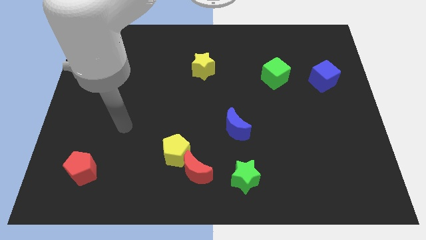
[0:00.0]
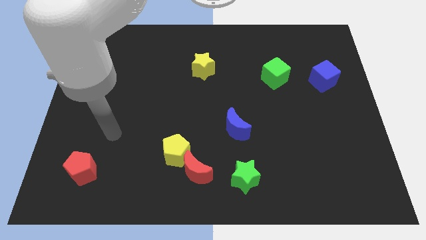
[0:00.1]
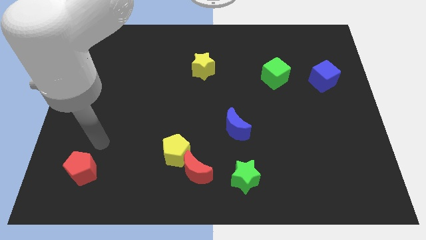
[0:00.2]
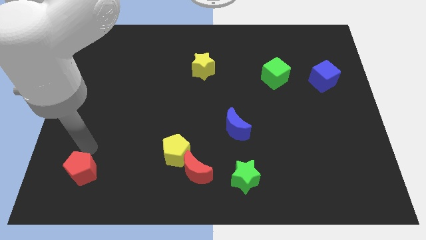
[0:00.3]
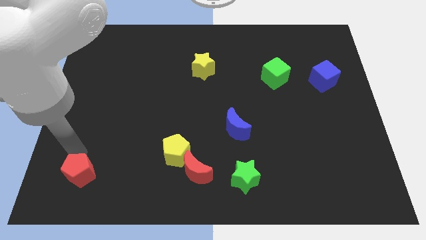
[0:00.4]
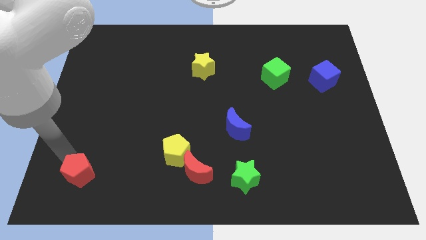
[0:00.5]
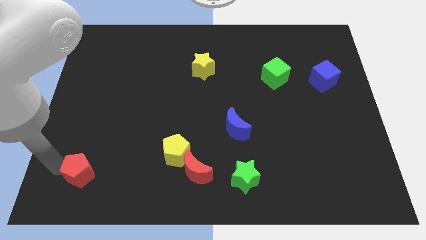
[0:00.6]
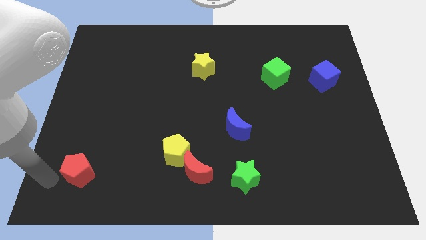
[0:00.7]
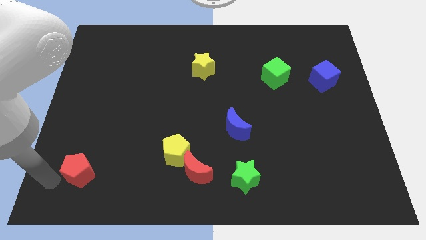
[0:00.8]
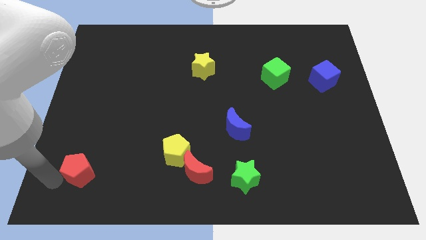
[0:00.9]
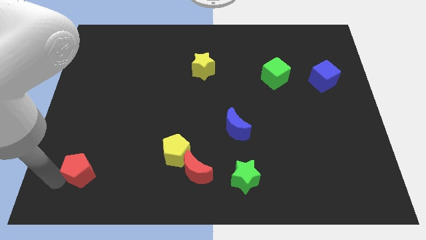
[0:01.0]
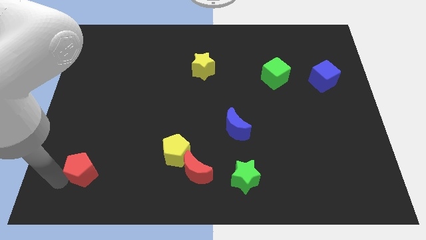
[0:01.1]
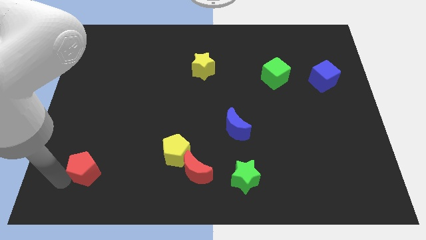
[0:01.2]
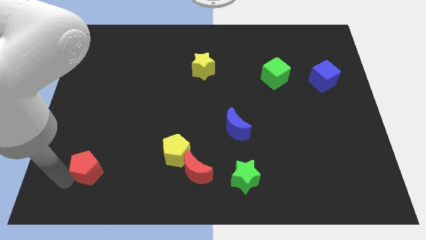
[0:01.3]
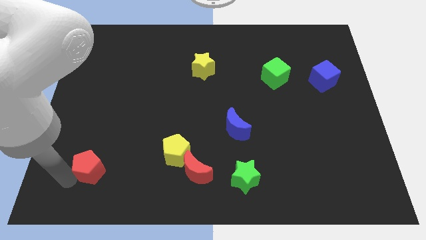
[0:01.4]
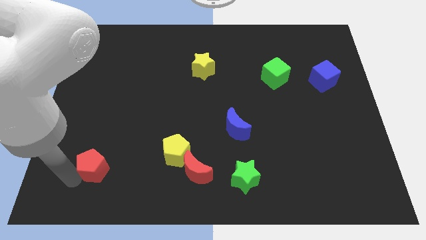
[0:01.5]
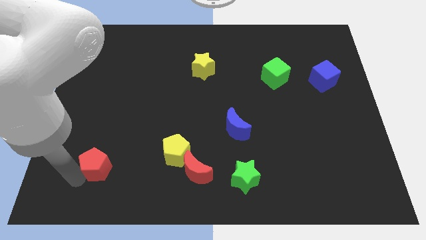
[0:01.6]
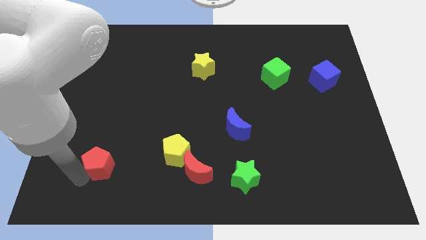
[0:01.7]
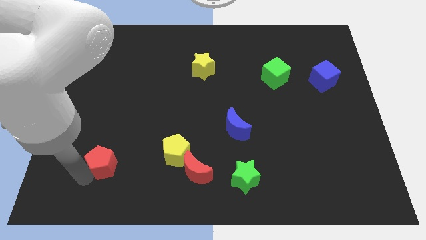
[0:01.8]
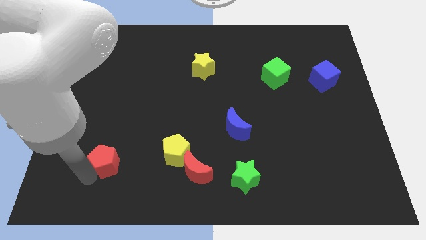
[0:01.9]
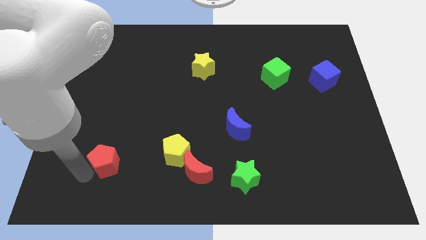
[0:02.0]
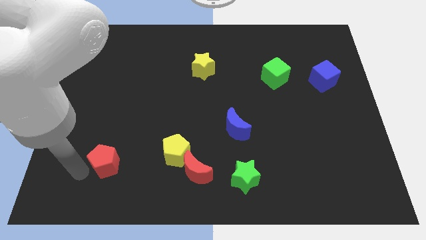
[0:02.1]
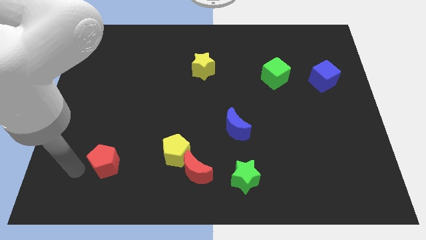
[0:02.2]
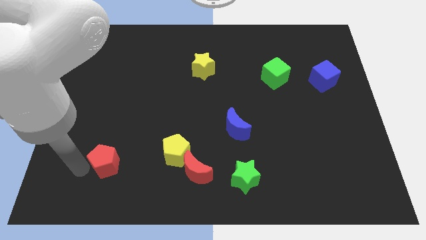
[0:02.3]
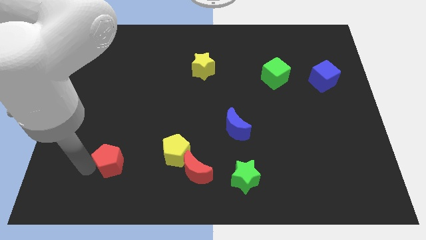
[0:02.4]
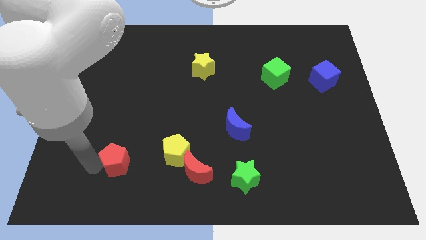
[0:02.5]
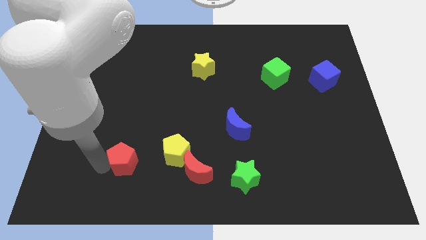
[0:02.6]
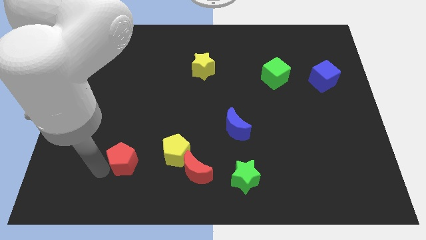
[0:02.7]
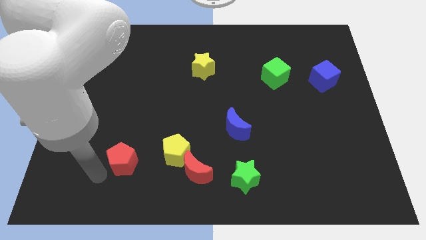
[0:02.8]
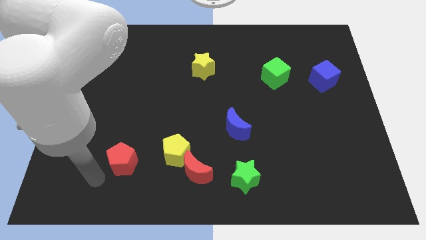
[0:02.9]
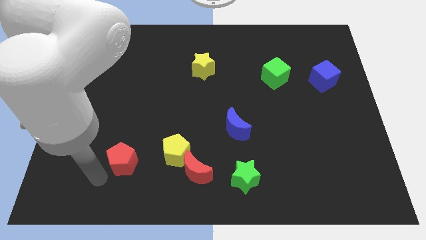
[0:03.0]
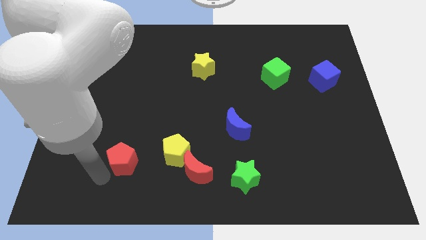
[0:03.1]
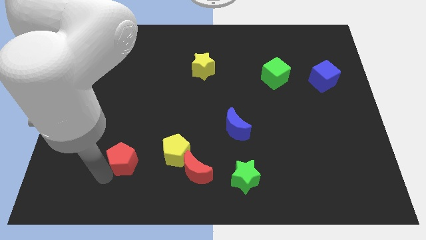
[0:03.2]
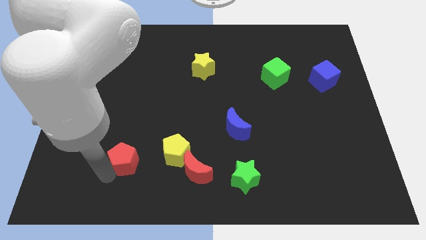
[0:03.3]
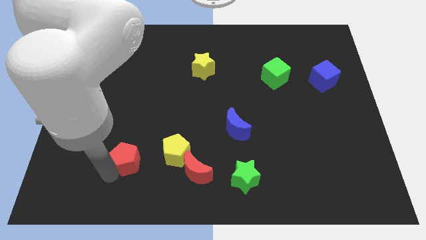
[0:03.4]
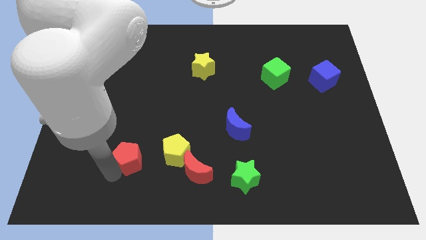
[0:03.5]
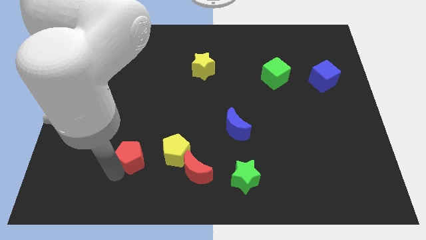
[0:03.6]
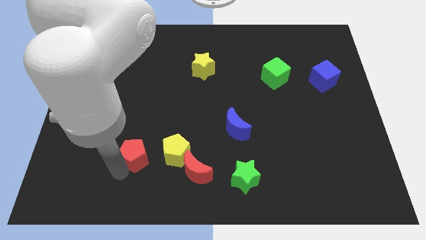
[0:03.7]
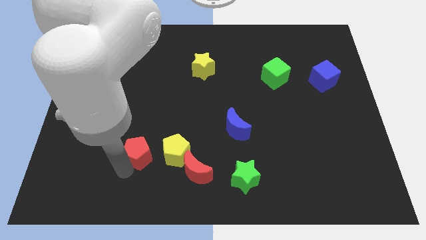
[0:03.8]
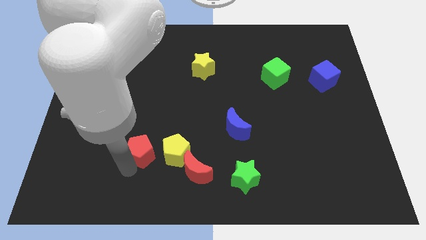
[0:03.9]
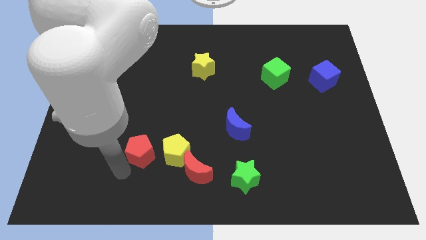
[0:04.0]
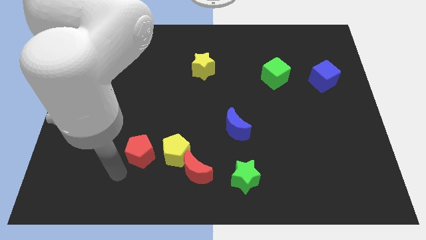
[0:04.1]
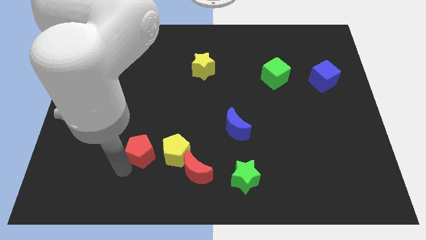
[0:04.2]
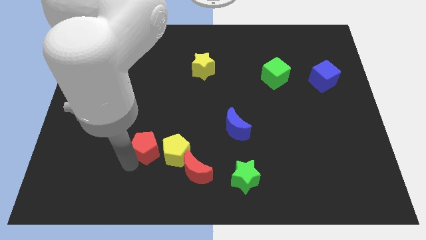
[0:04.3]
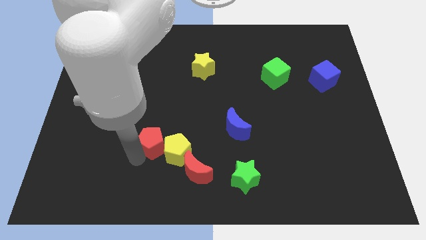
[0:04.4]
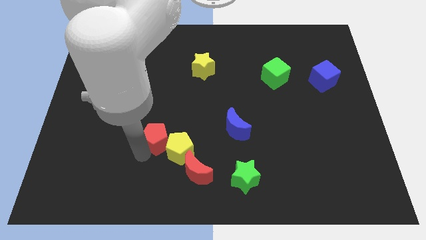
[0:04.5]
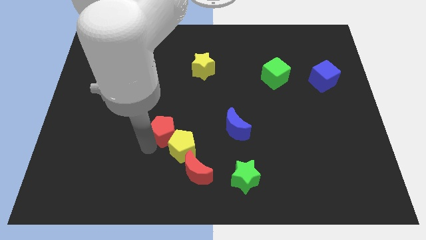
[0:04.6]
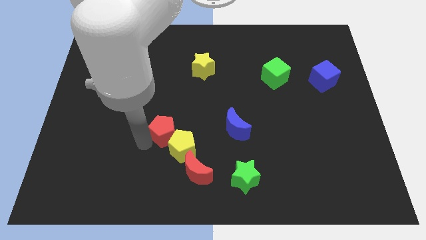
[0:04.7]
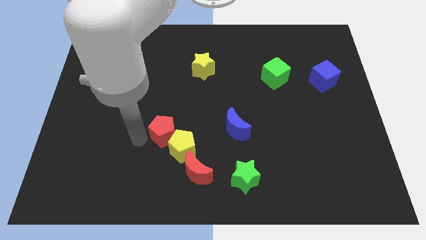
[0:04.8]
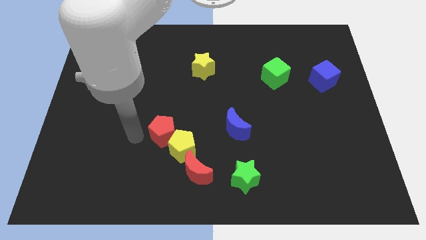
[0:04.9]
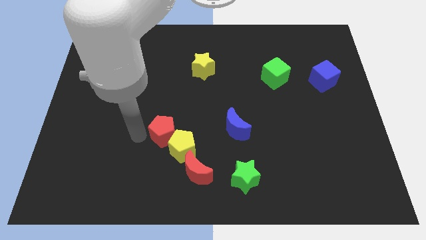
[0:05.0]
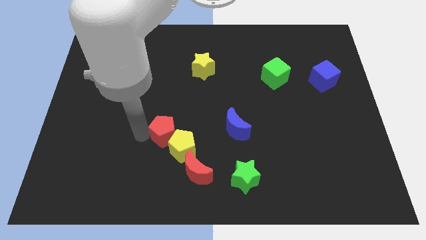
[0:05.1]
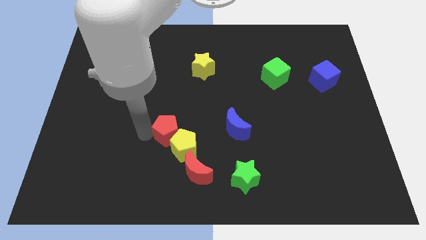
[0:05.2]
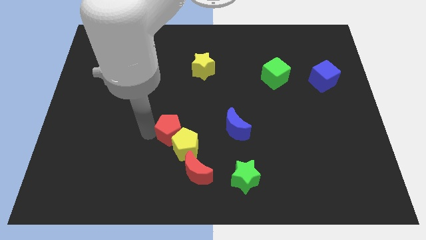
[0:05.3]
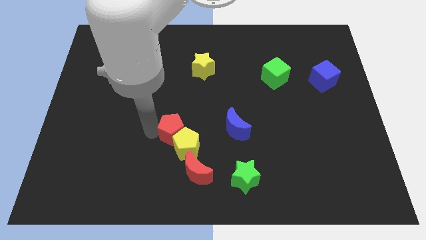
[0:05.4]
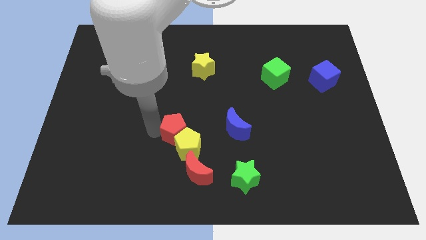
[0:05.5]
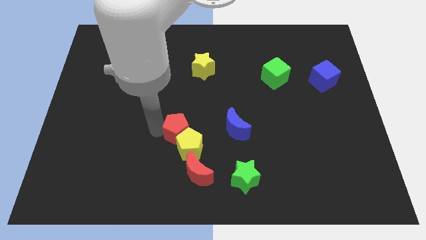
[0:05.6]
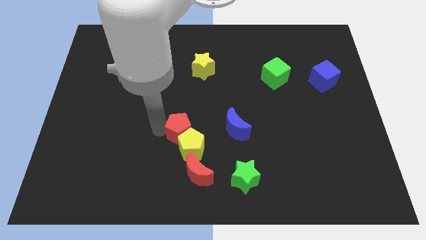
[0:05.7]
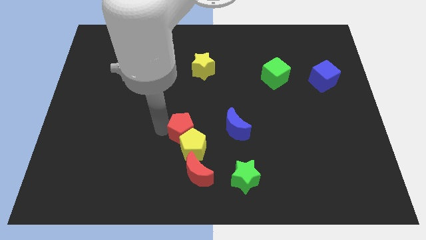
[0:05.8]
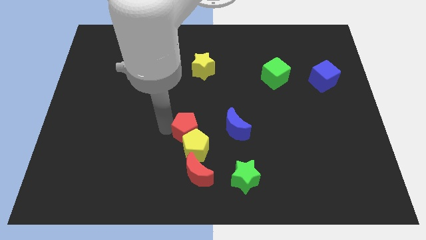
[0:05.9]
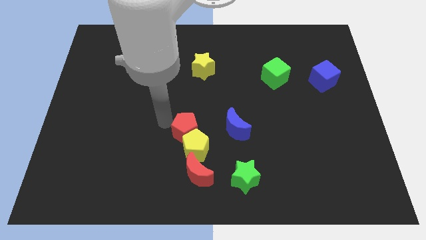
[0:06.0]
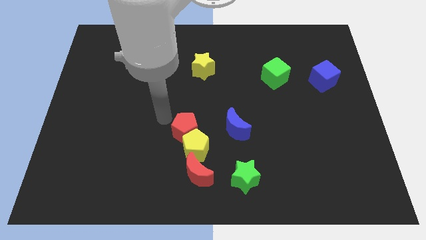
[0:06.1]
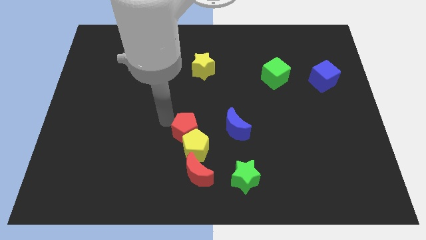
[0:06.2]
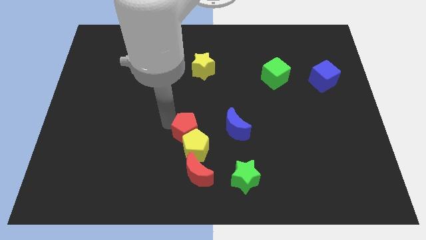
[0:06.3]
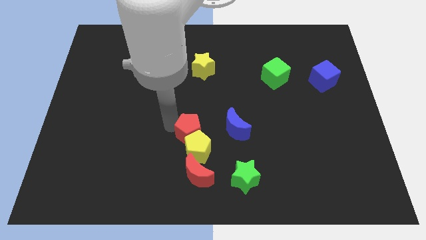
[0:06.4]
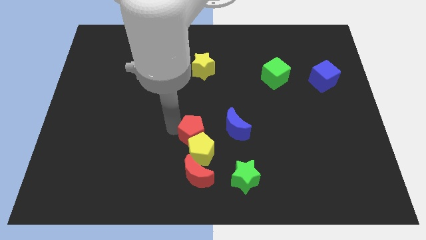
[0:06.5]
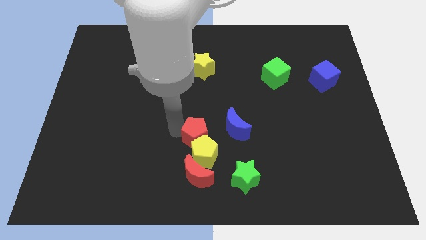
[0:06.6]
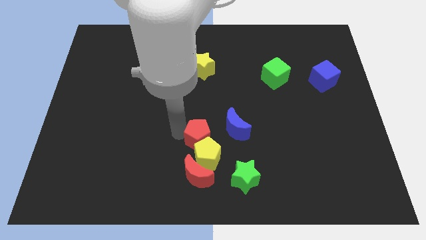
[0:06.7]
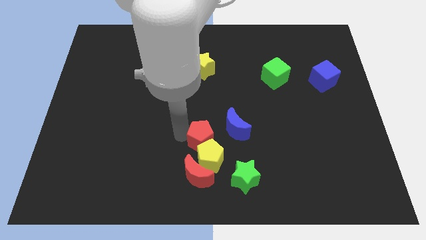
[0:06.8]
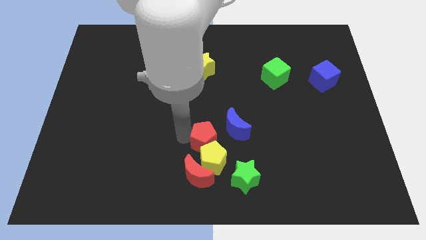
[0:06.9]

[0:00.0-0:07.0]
slide the red pentagon to the top right of the red moon
